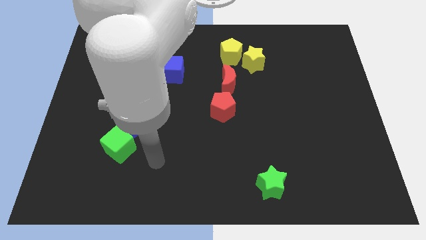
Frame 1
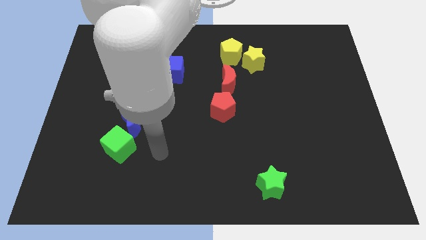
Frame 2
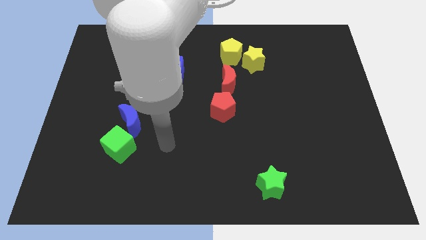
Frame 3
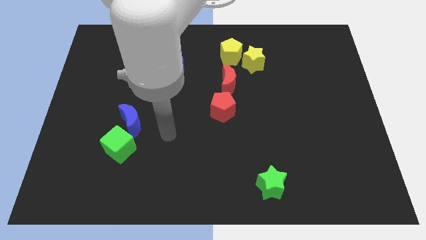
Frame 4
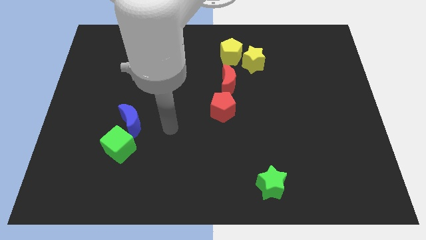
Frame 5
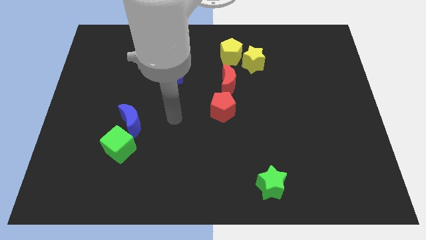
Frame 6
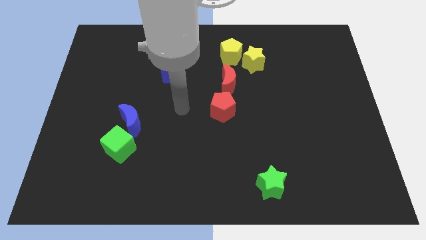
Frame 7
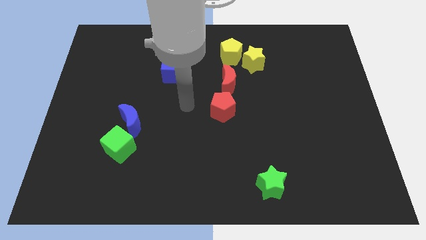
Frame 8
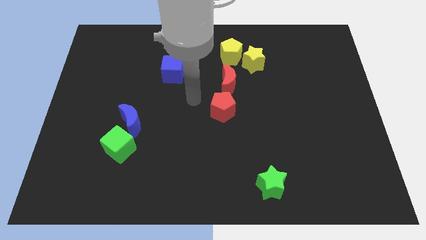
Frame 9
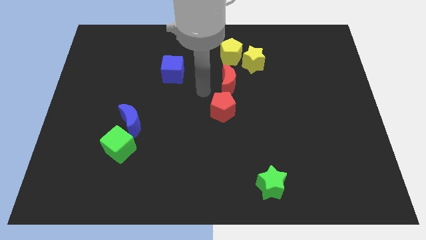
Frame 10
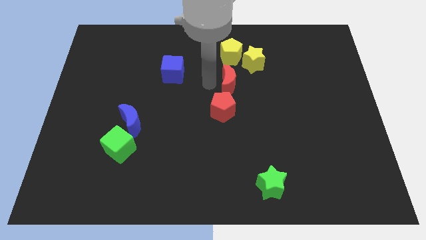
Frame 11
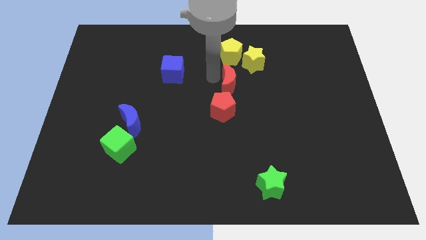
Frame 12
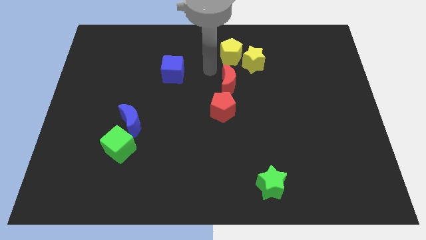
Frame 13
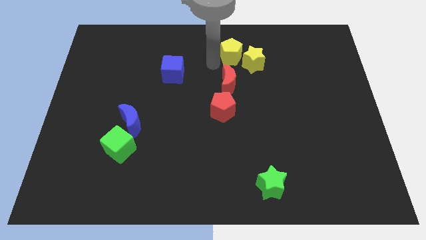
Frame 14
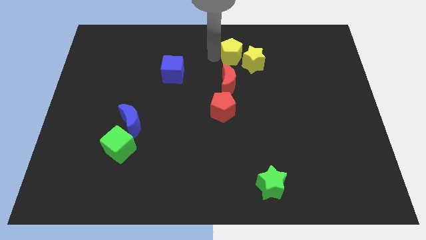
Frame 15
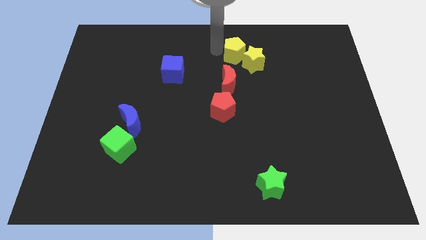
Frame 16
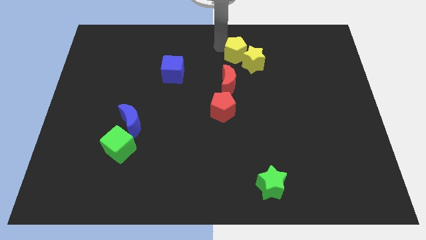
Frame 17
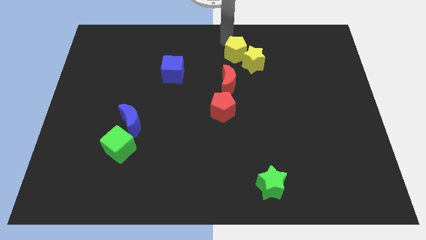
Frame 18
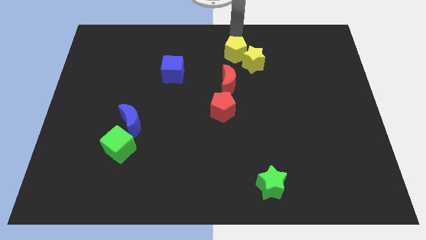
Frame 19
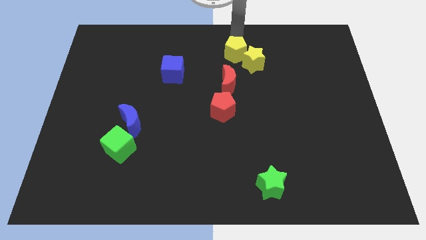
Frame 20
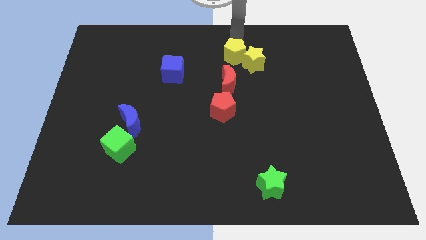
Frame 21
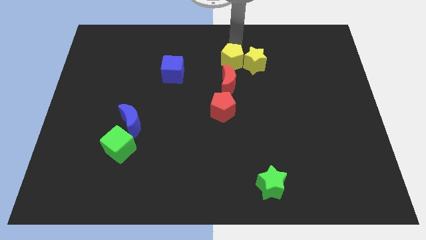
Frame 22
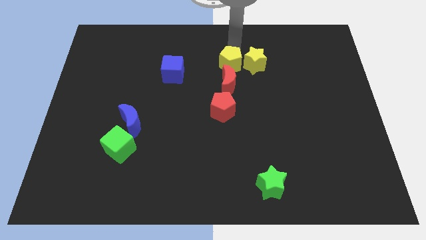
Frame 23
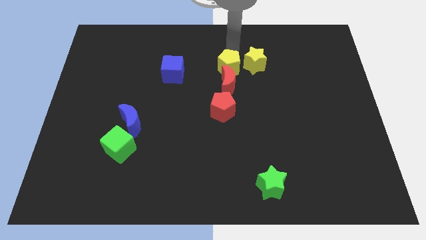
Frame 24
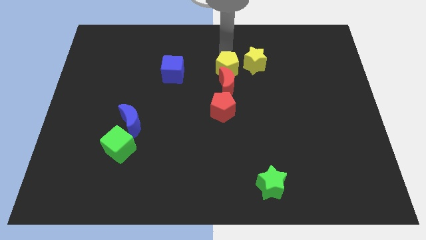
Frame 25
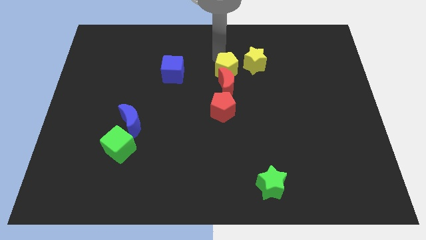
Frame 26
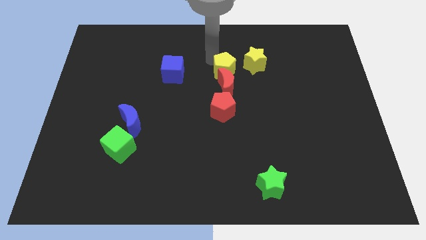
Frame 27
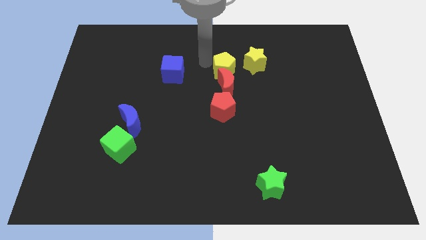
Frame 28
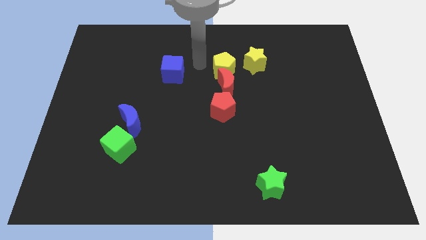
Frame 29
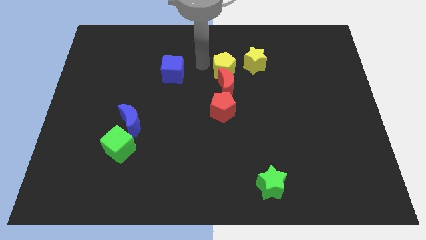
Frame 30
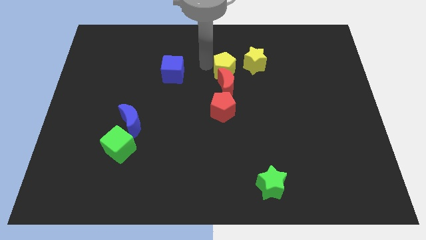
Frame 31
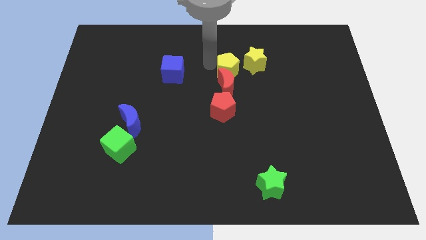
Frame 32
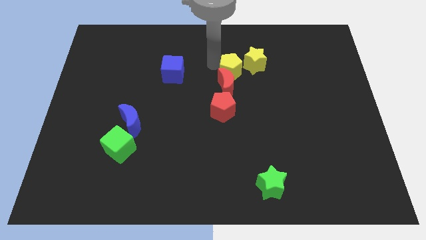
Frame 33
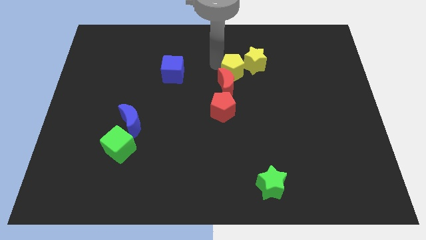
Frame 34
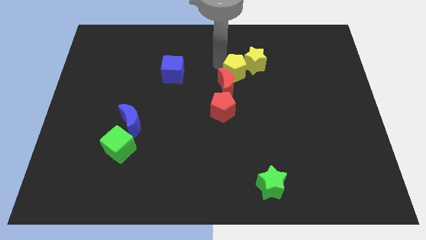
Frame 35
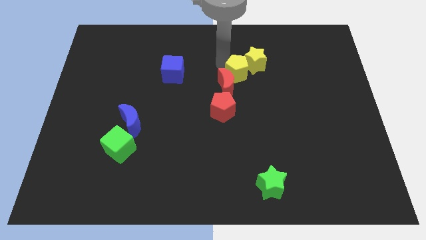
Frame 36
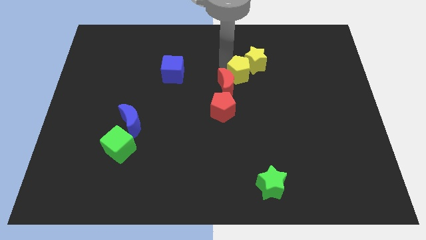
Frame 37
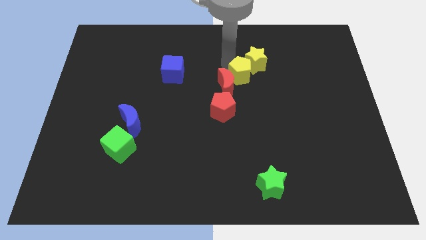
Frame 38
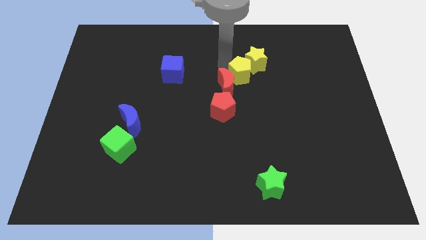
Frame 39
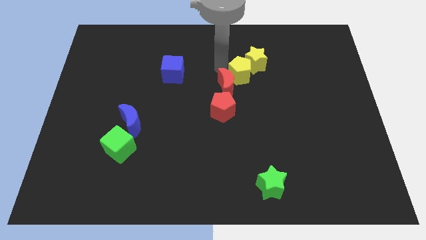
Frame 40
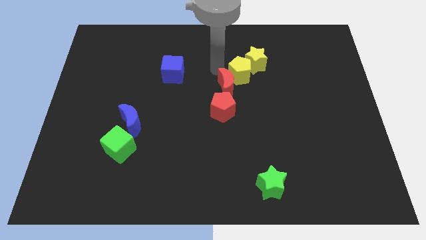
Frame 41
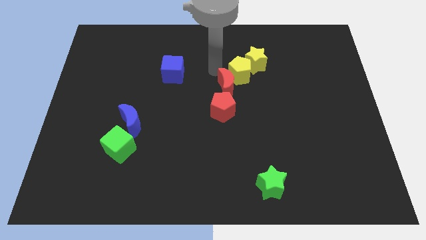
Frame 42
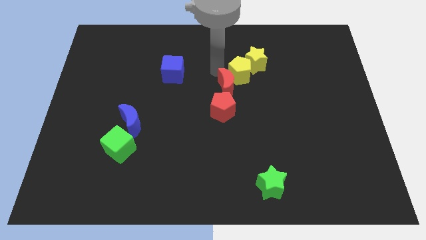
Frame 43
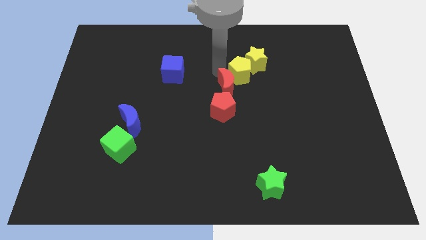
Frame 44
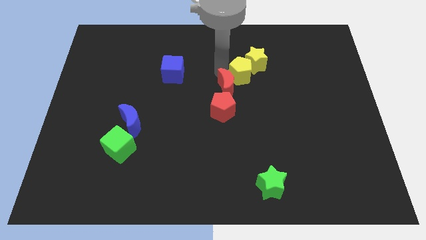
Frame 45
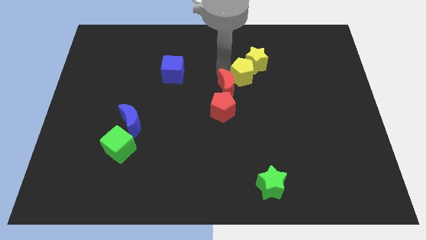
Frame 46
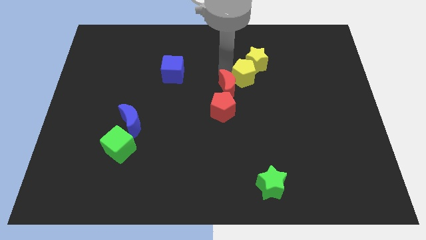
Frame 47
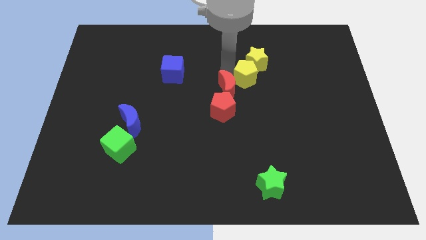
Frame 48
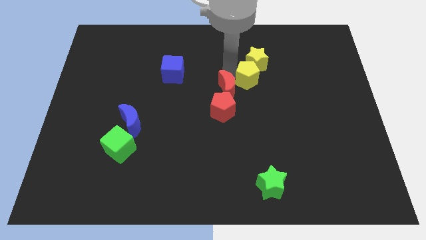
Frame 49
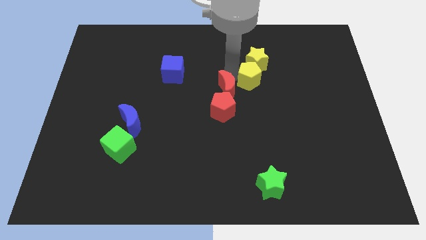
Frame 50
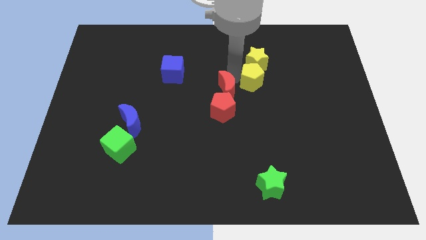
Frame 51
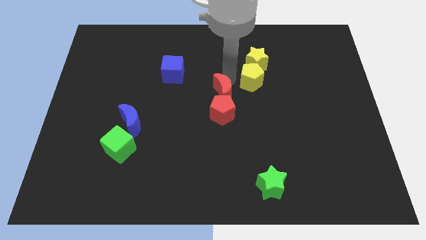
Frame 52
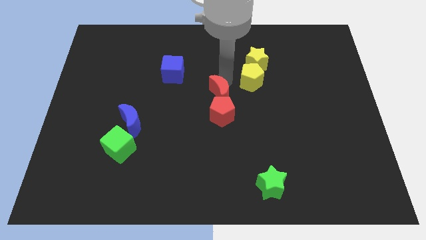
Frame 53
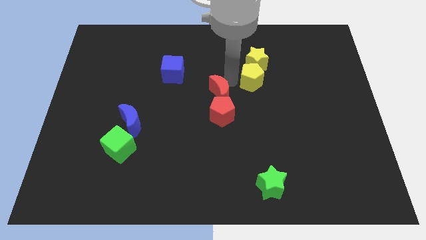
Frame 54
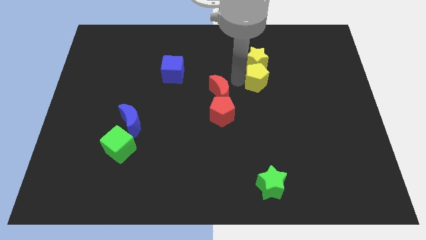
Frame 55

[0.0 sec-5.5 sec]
slide the yellow pentagon to the bottom right of the yellow star

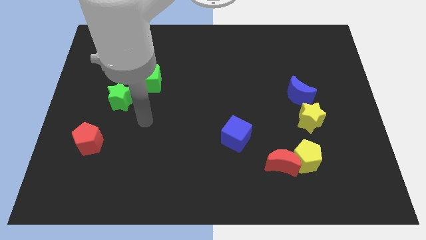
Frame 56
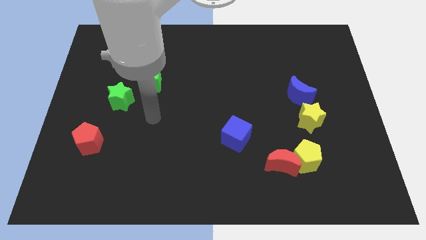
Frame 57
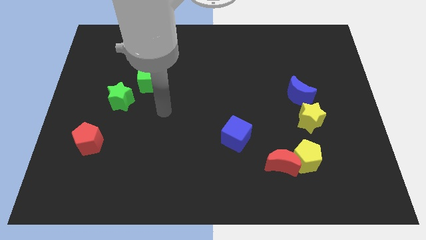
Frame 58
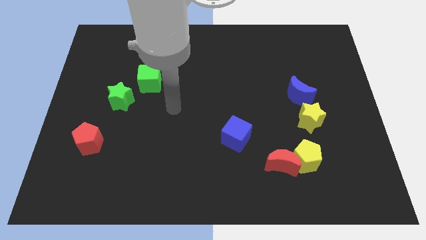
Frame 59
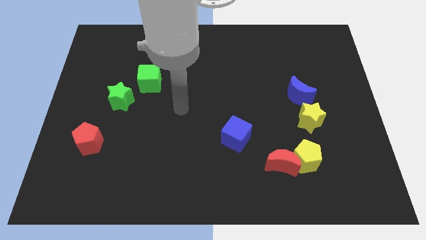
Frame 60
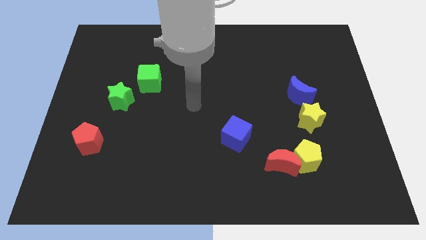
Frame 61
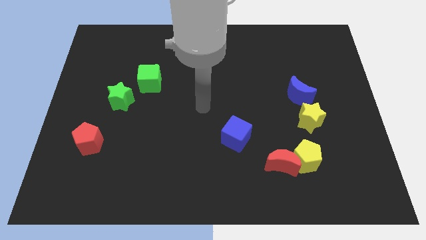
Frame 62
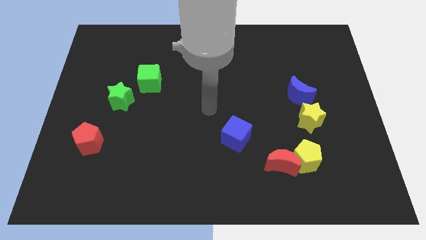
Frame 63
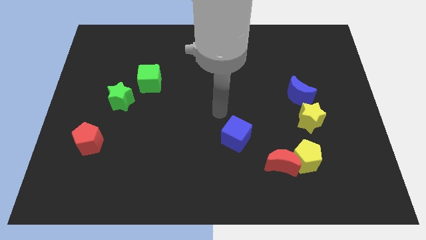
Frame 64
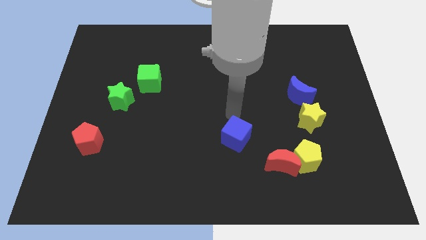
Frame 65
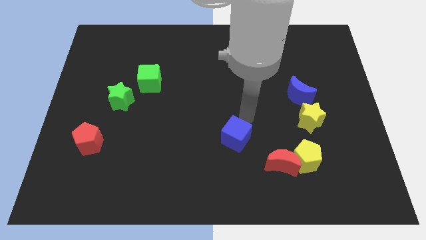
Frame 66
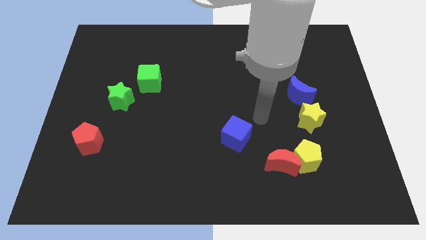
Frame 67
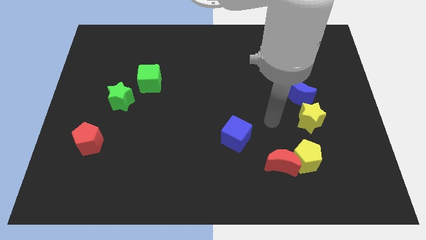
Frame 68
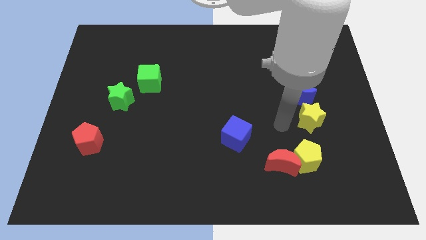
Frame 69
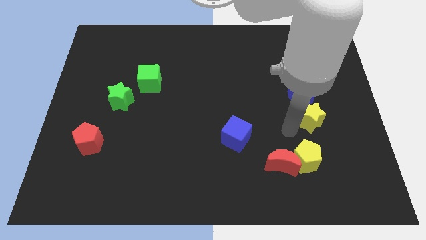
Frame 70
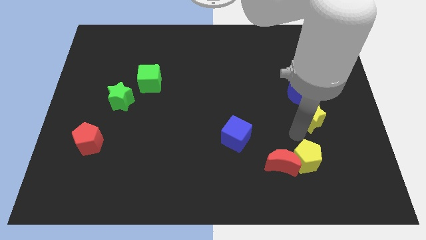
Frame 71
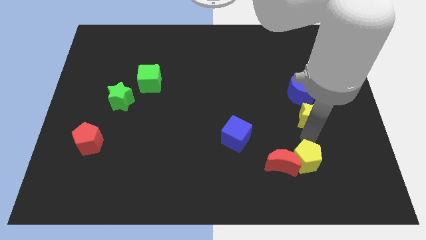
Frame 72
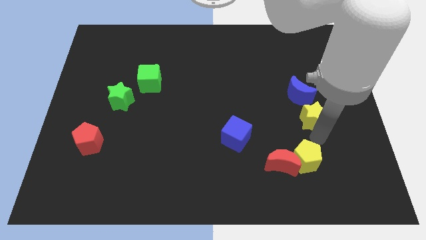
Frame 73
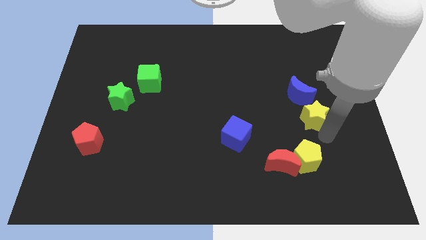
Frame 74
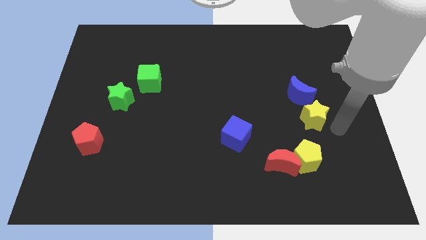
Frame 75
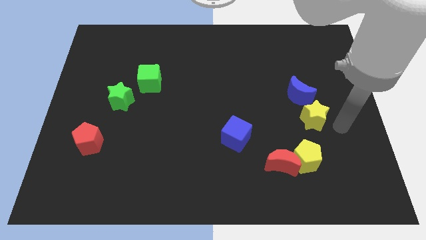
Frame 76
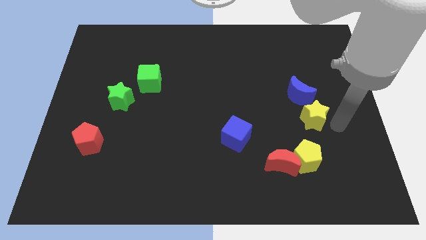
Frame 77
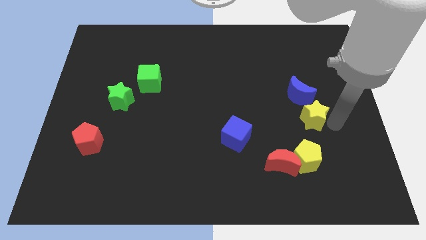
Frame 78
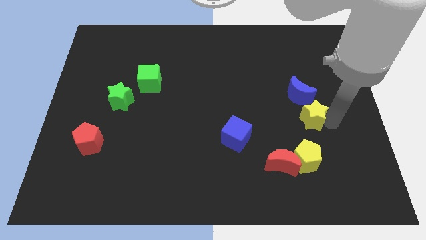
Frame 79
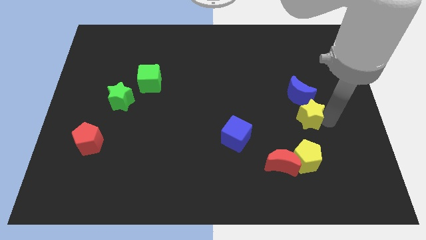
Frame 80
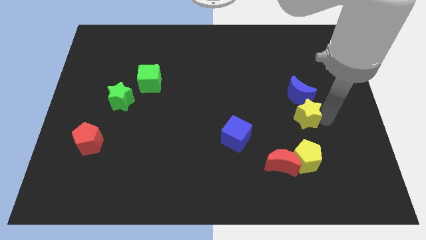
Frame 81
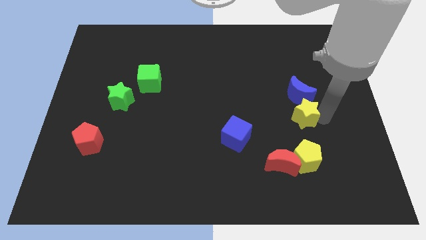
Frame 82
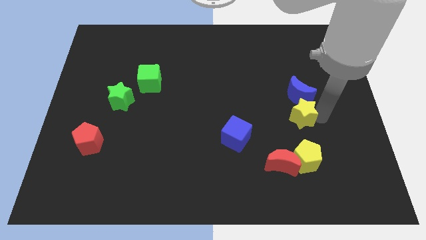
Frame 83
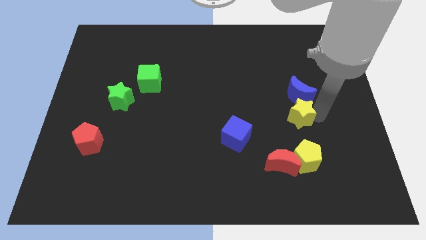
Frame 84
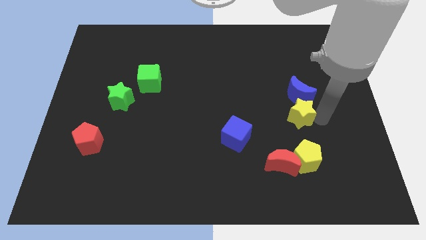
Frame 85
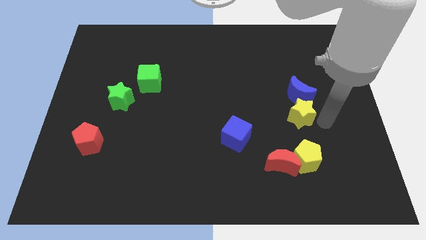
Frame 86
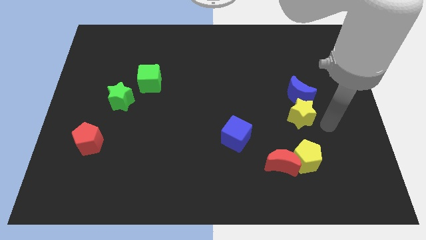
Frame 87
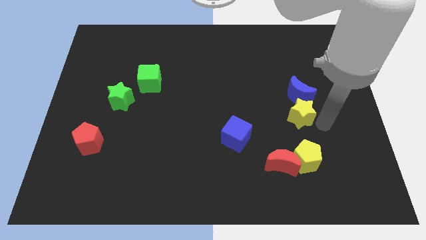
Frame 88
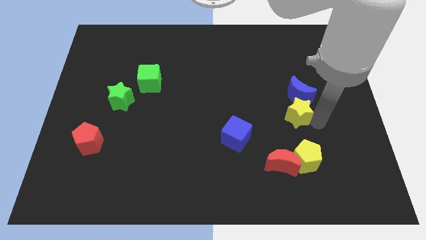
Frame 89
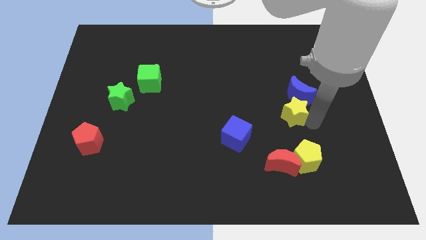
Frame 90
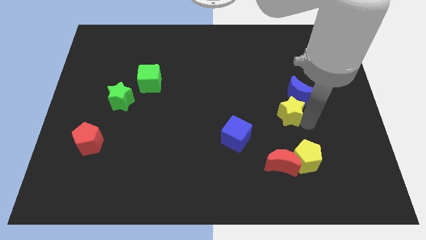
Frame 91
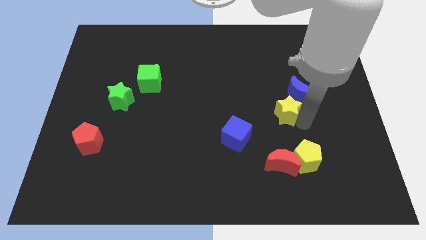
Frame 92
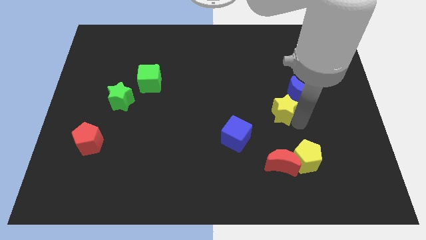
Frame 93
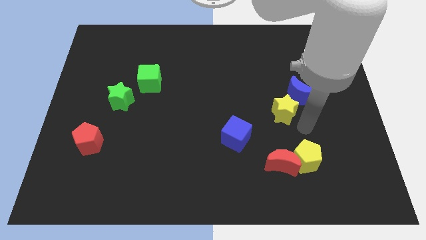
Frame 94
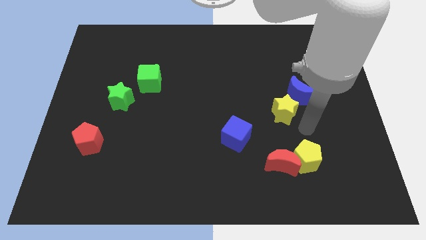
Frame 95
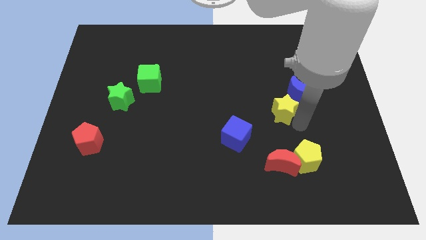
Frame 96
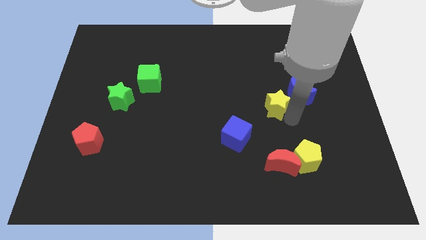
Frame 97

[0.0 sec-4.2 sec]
move the yellow star to the left side of the blue moon
